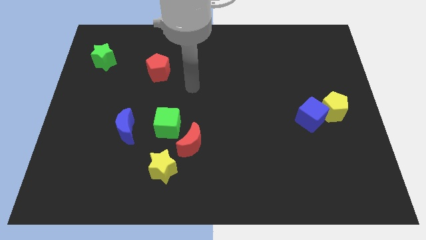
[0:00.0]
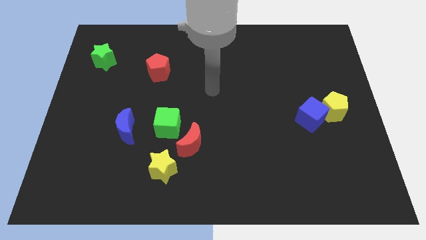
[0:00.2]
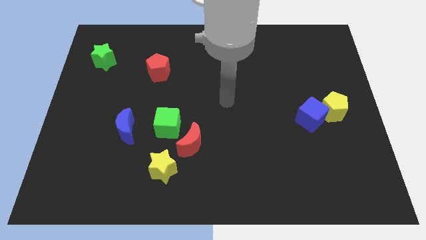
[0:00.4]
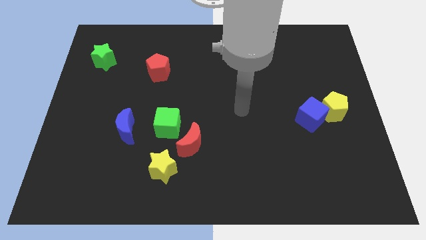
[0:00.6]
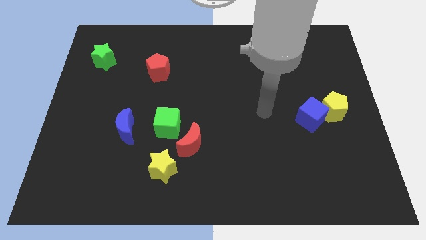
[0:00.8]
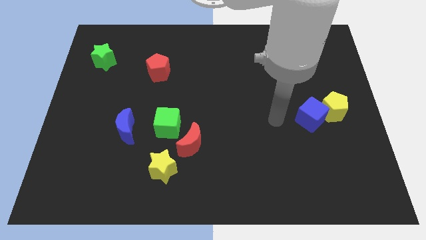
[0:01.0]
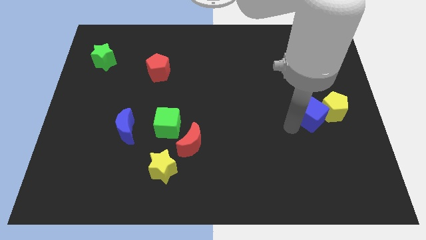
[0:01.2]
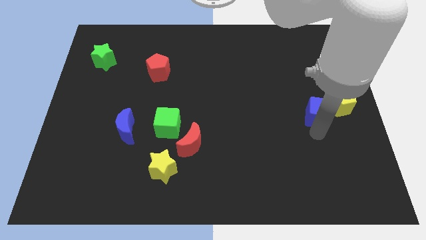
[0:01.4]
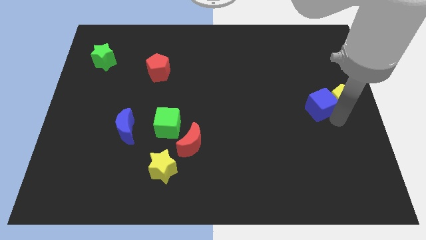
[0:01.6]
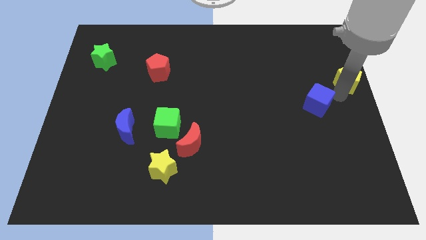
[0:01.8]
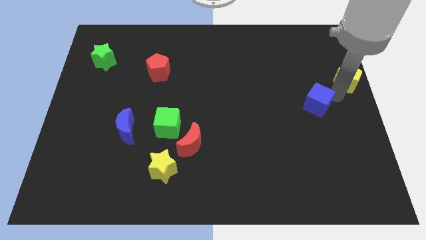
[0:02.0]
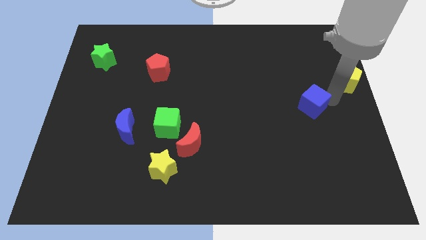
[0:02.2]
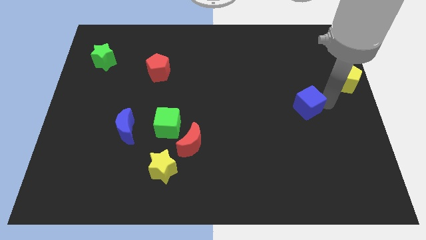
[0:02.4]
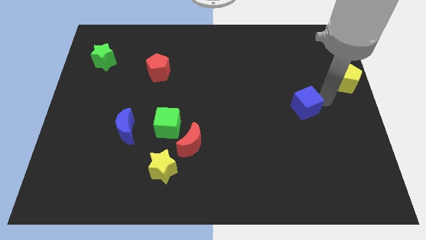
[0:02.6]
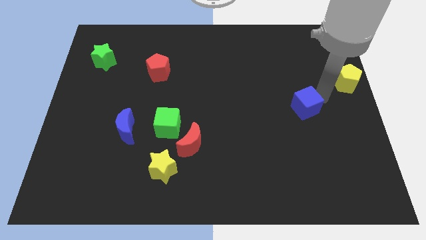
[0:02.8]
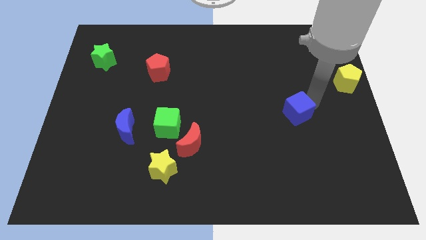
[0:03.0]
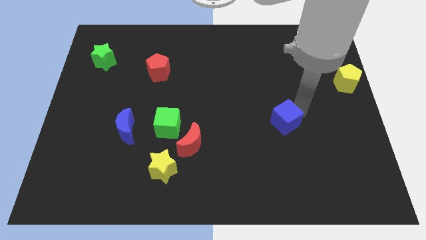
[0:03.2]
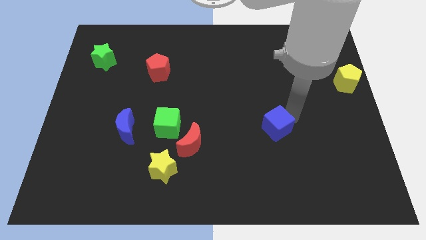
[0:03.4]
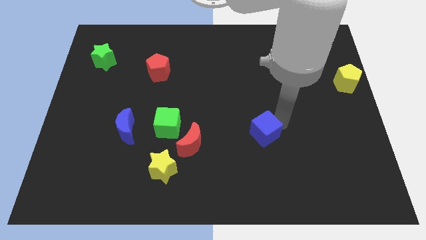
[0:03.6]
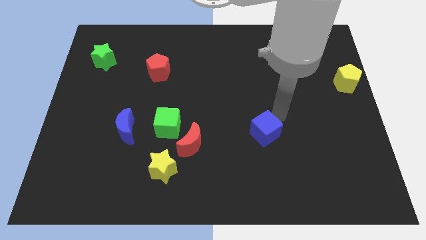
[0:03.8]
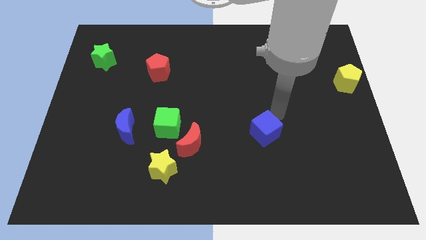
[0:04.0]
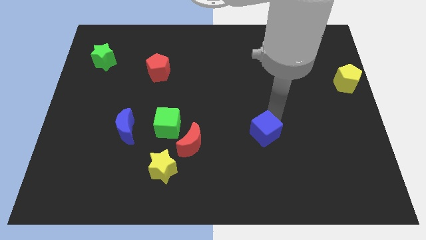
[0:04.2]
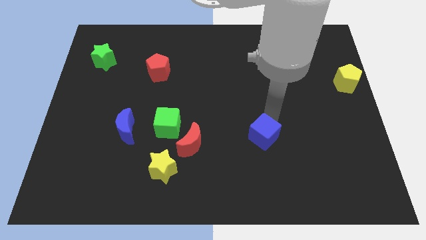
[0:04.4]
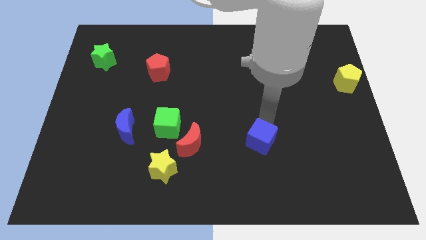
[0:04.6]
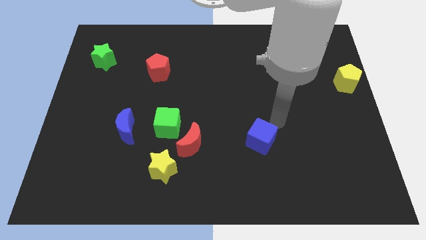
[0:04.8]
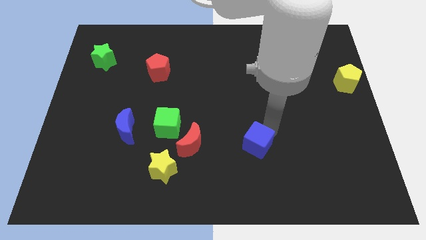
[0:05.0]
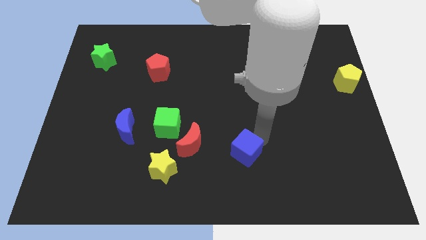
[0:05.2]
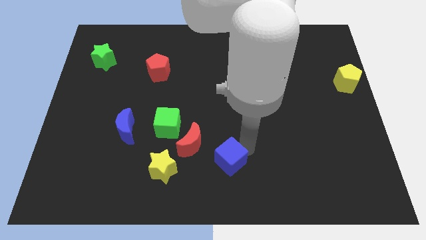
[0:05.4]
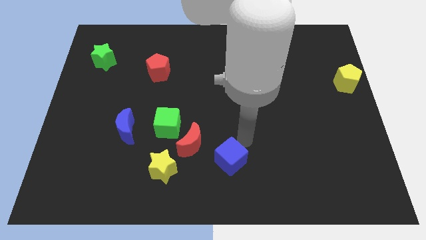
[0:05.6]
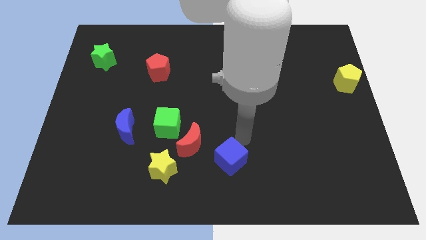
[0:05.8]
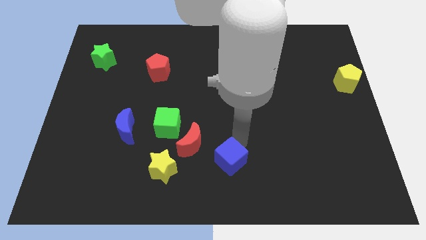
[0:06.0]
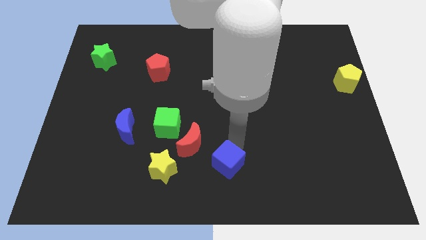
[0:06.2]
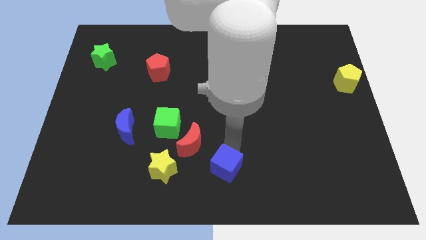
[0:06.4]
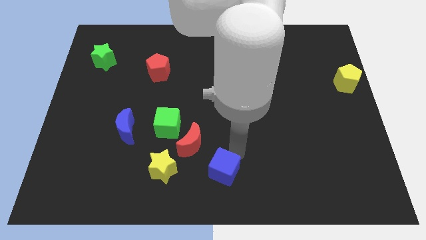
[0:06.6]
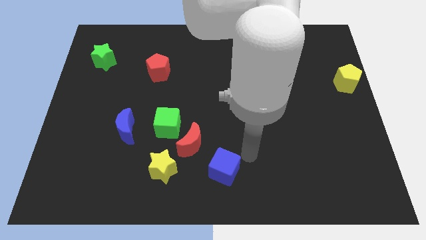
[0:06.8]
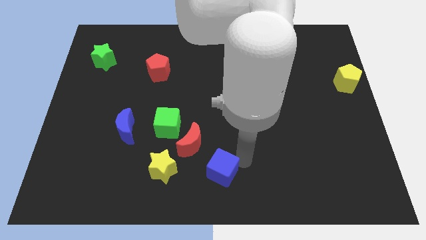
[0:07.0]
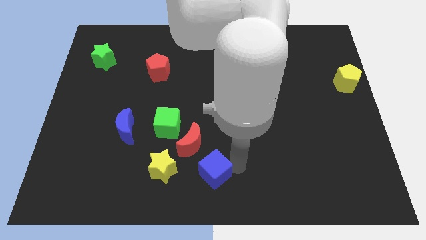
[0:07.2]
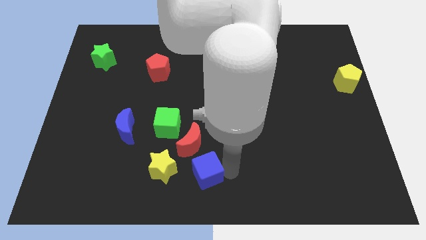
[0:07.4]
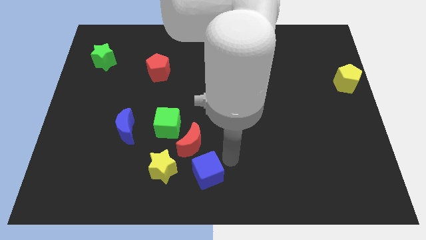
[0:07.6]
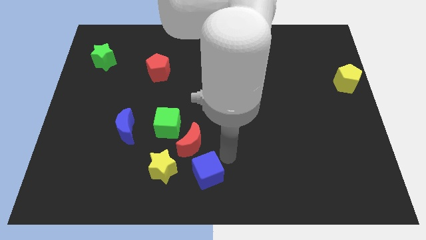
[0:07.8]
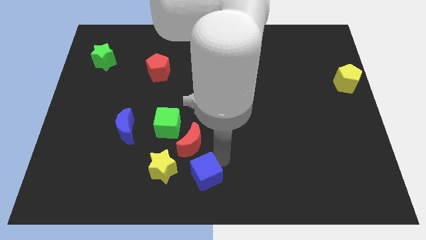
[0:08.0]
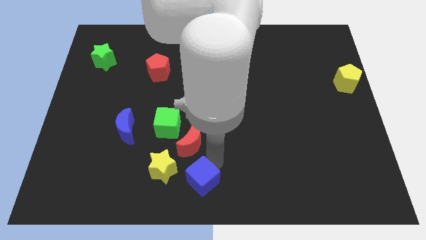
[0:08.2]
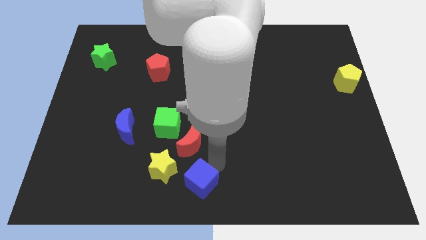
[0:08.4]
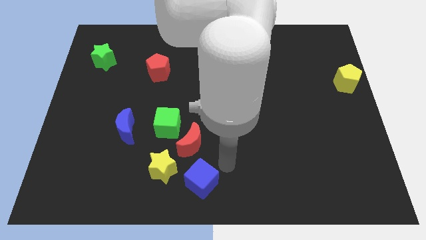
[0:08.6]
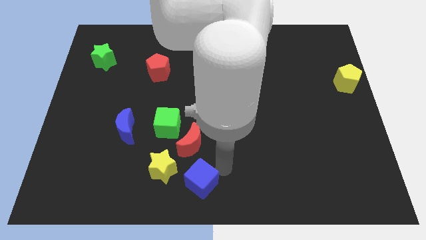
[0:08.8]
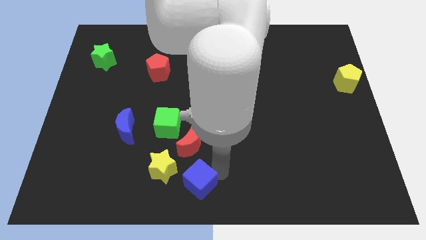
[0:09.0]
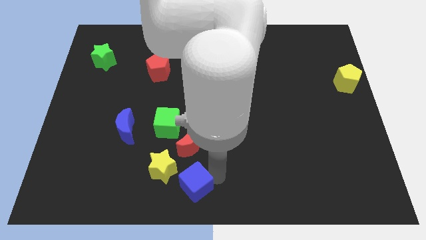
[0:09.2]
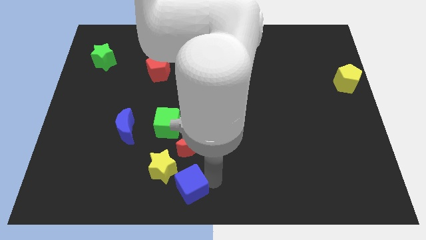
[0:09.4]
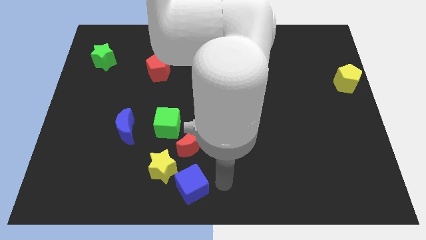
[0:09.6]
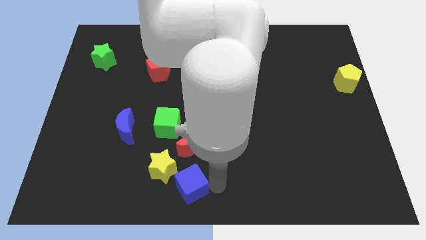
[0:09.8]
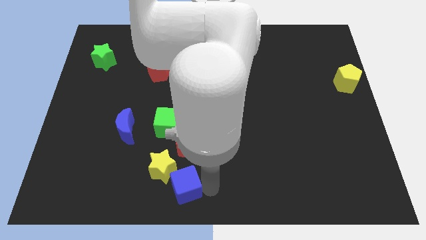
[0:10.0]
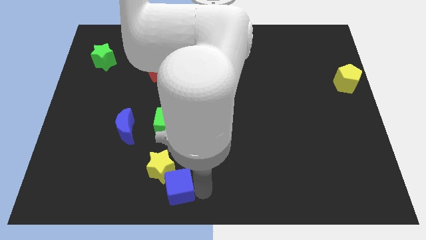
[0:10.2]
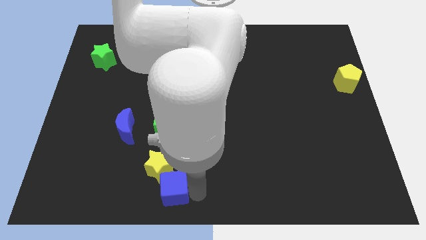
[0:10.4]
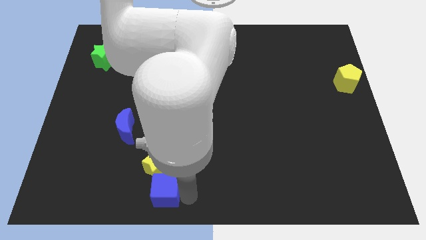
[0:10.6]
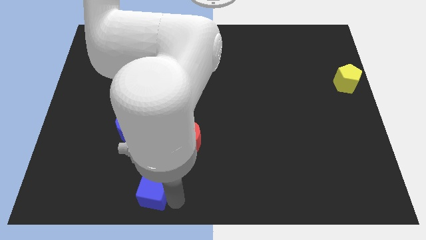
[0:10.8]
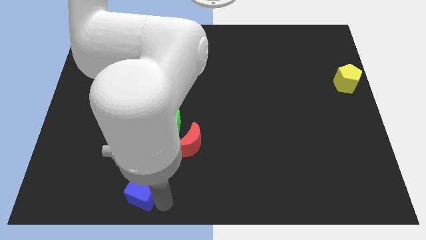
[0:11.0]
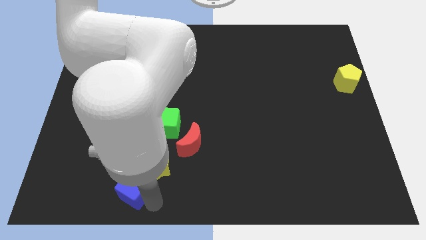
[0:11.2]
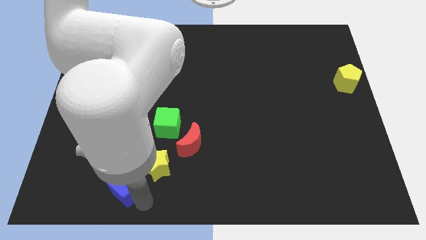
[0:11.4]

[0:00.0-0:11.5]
put the blue cube to the left side of the yellow star

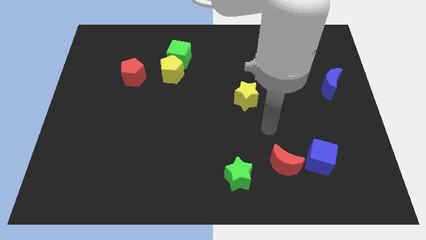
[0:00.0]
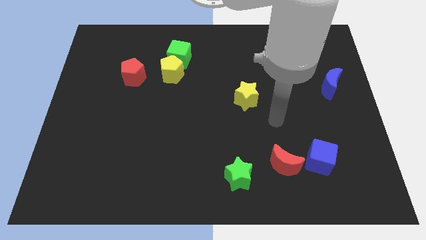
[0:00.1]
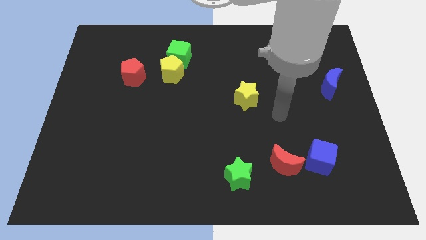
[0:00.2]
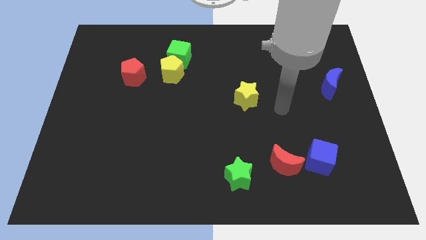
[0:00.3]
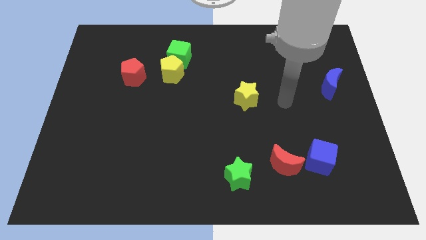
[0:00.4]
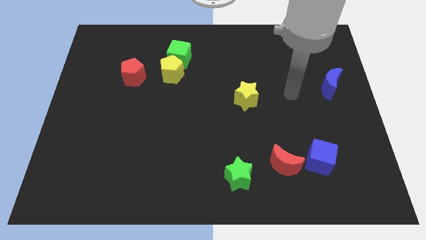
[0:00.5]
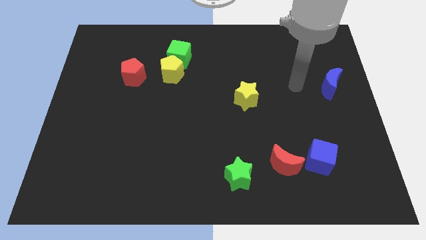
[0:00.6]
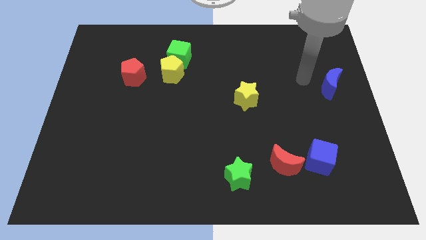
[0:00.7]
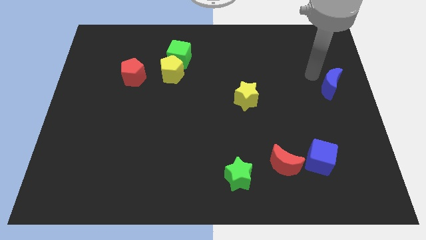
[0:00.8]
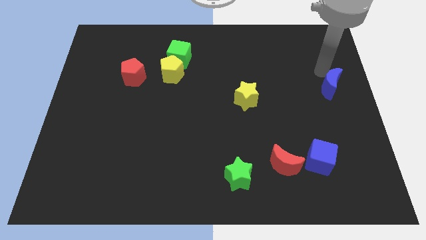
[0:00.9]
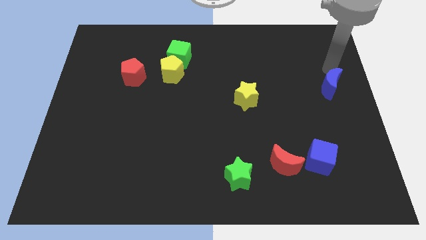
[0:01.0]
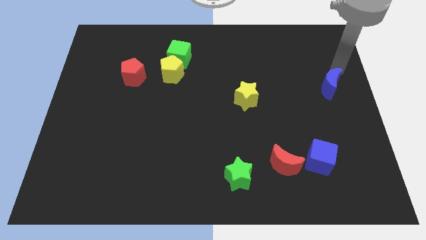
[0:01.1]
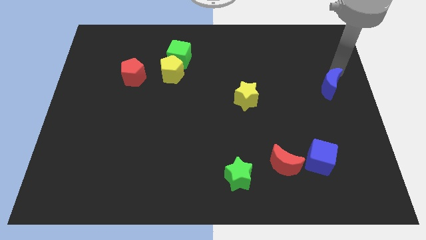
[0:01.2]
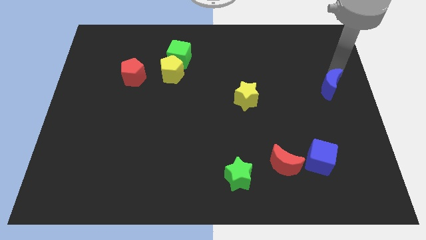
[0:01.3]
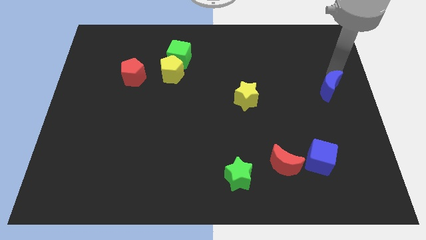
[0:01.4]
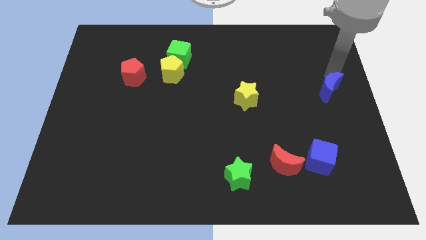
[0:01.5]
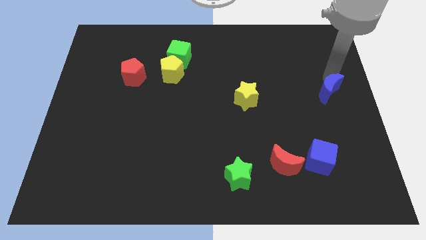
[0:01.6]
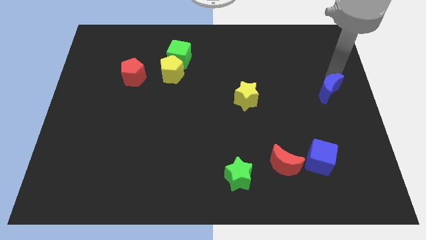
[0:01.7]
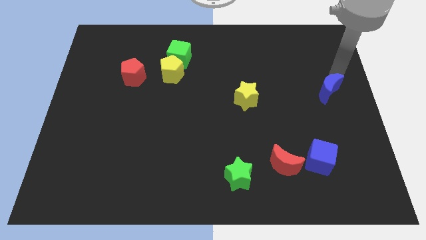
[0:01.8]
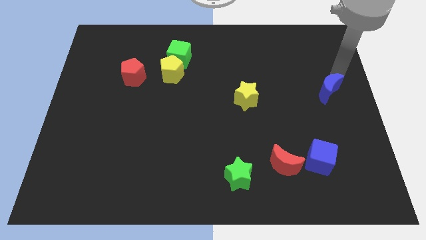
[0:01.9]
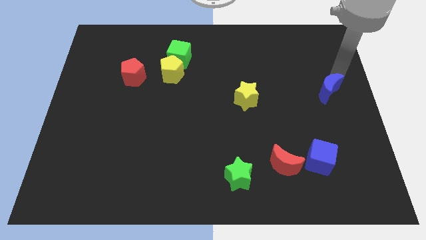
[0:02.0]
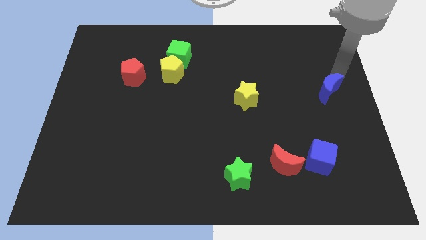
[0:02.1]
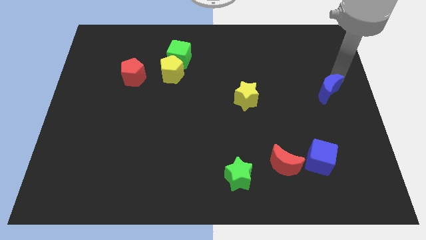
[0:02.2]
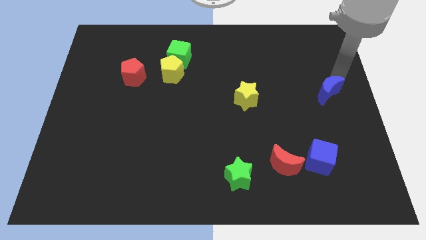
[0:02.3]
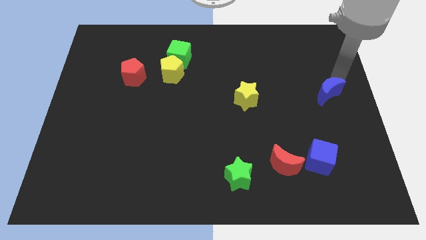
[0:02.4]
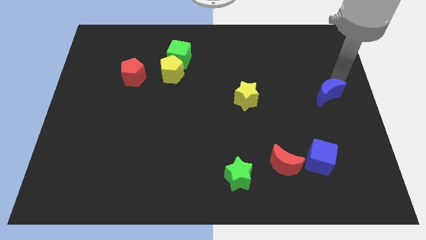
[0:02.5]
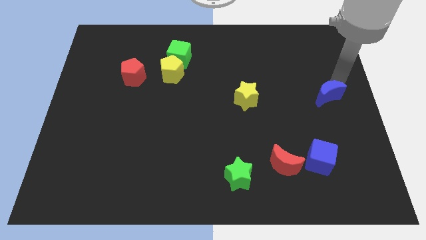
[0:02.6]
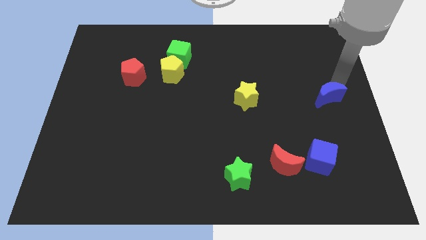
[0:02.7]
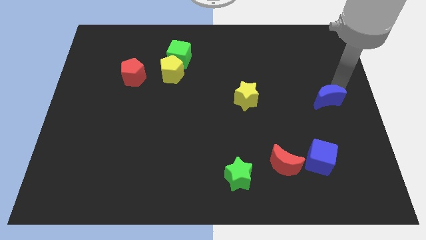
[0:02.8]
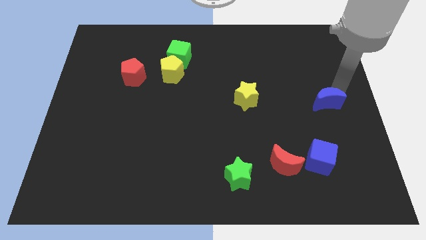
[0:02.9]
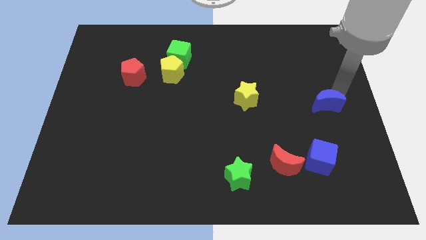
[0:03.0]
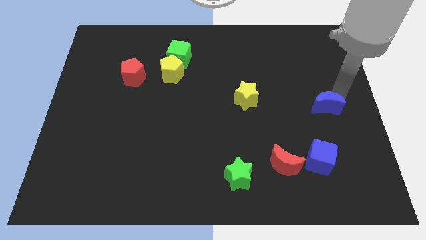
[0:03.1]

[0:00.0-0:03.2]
push the blue moon above the blue cube
